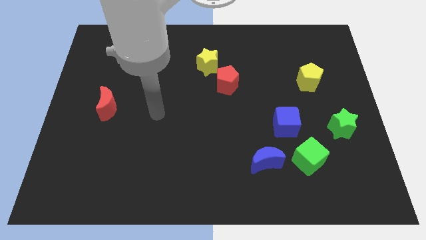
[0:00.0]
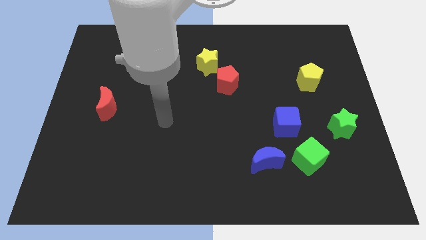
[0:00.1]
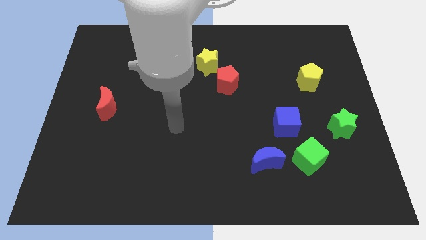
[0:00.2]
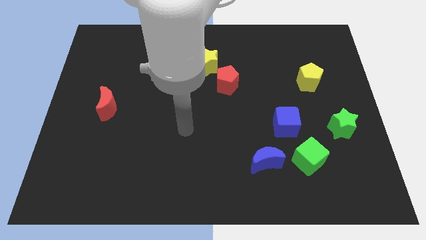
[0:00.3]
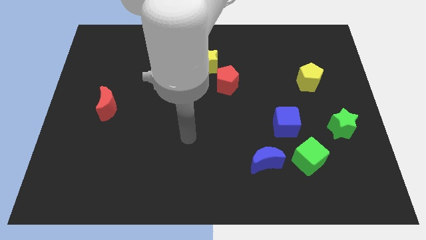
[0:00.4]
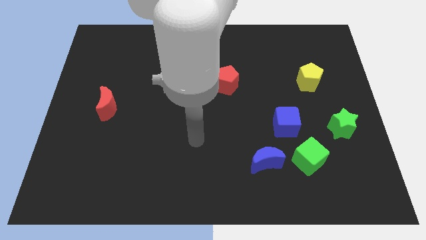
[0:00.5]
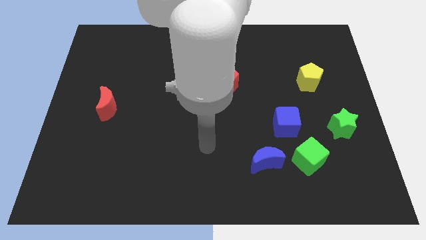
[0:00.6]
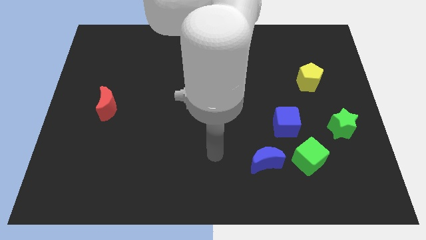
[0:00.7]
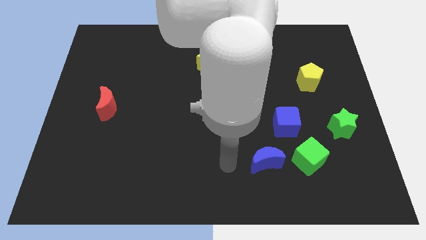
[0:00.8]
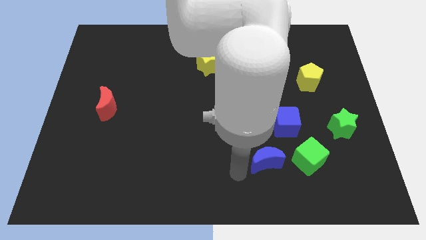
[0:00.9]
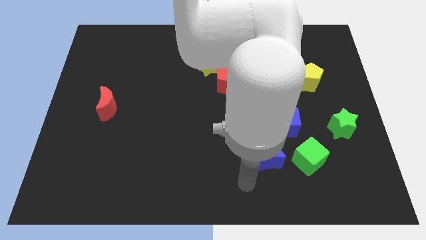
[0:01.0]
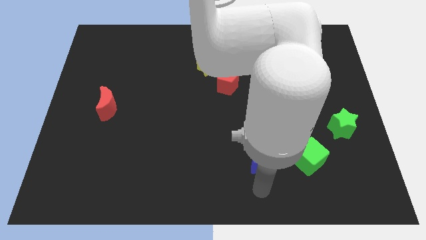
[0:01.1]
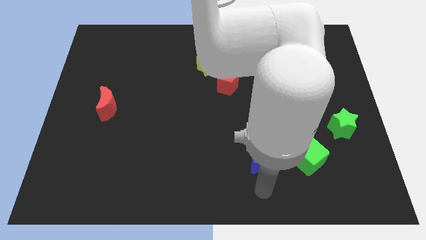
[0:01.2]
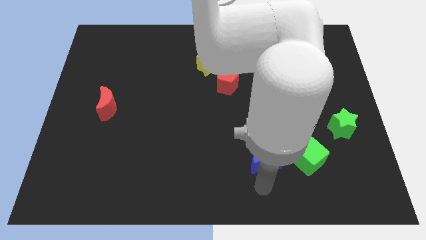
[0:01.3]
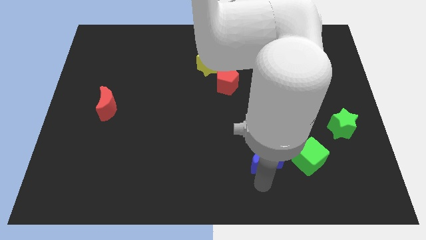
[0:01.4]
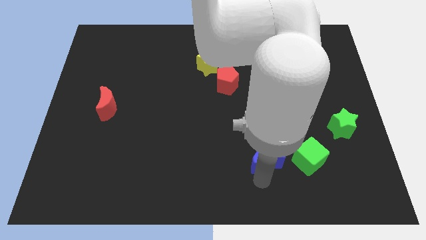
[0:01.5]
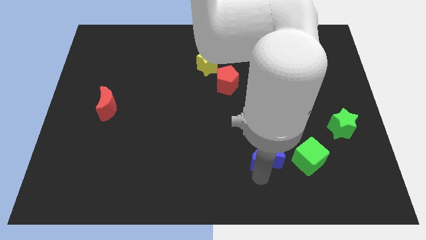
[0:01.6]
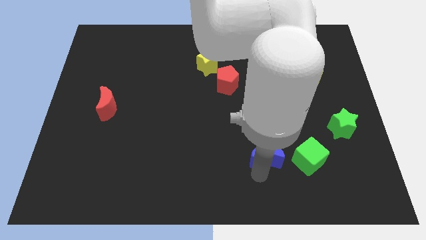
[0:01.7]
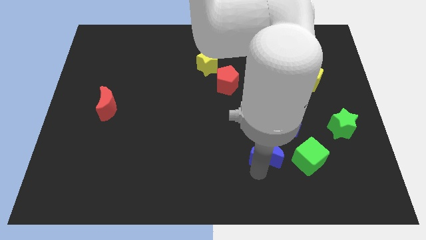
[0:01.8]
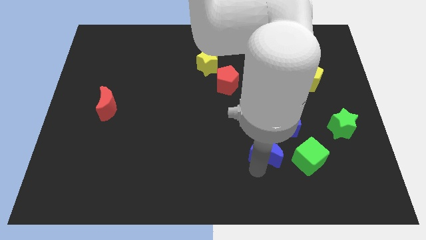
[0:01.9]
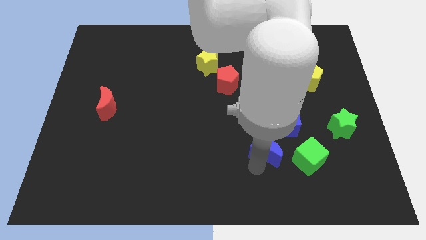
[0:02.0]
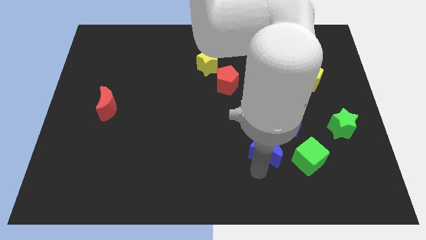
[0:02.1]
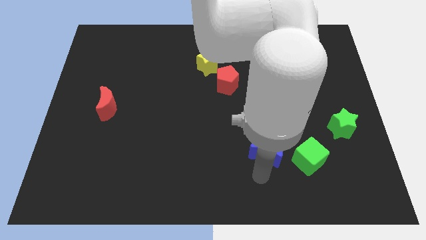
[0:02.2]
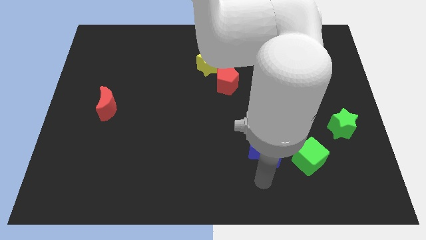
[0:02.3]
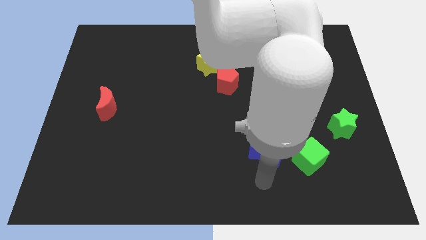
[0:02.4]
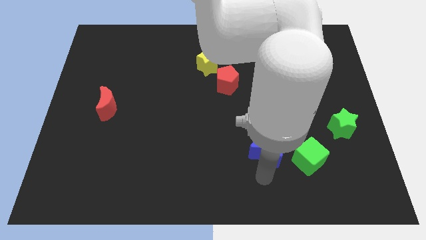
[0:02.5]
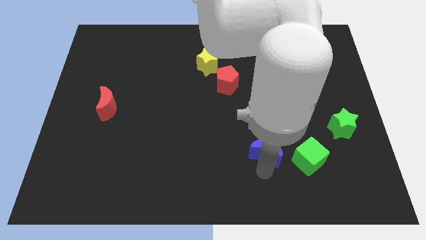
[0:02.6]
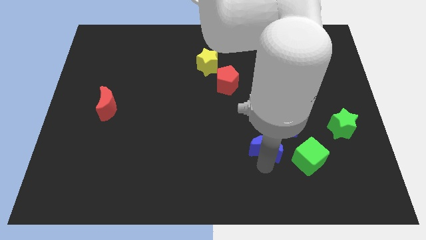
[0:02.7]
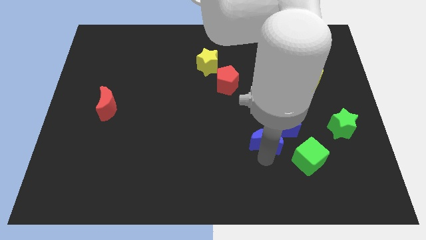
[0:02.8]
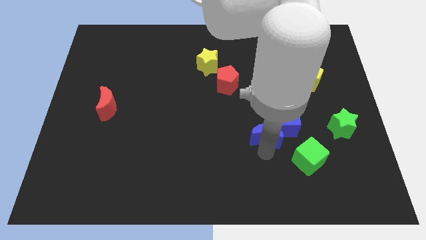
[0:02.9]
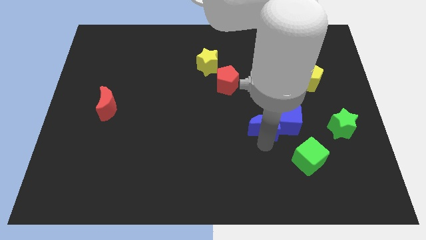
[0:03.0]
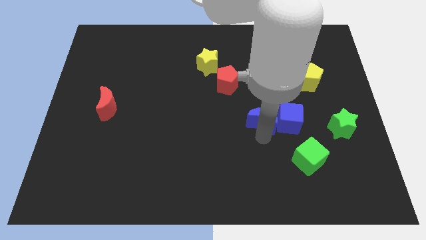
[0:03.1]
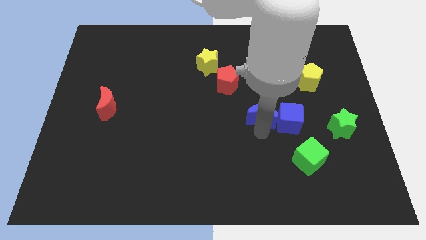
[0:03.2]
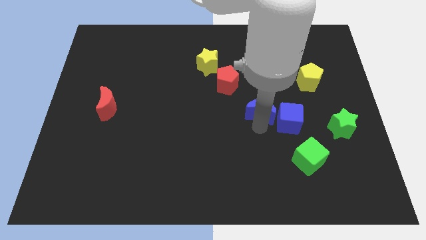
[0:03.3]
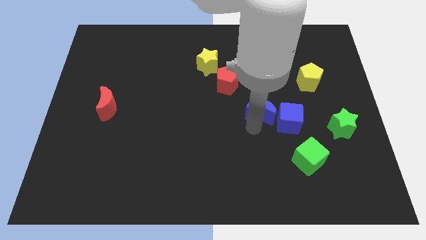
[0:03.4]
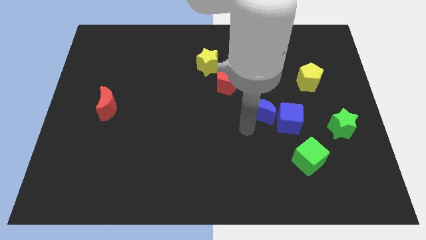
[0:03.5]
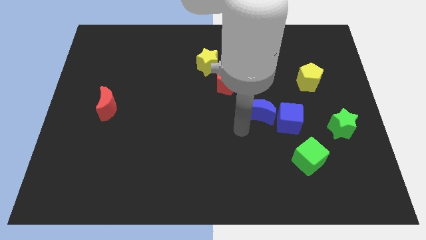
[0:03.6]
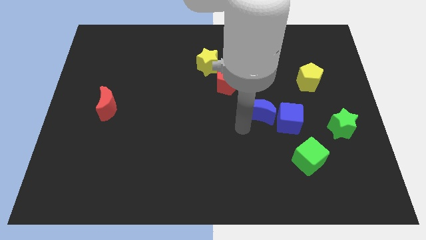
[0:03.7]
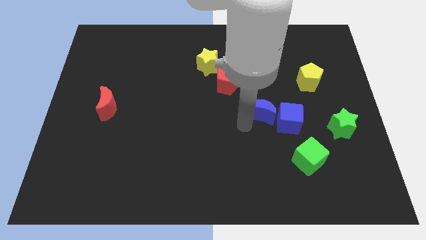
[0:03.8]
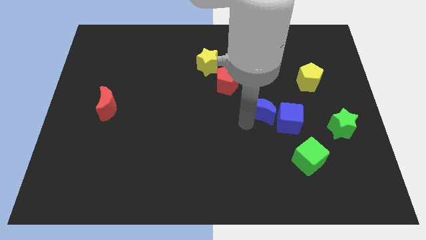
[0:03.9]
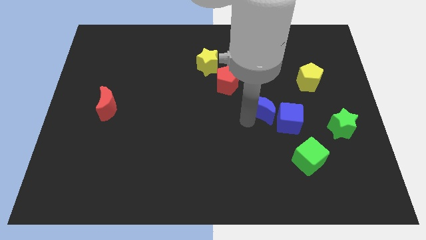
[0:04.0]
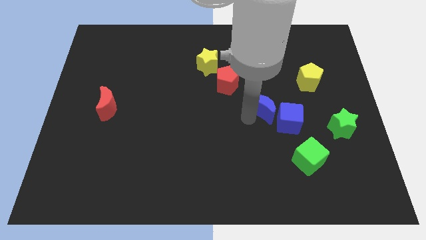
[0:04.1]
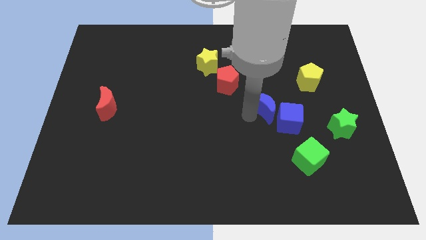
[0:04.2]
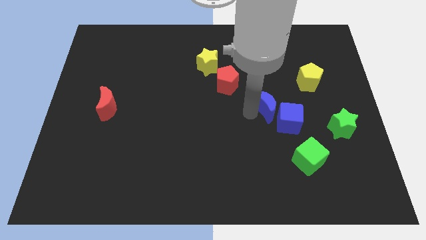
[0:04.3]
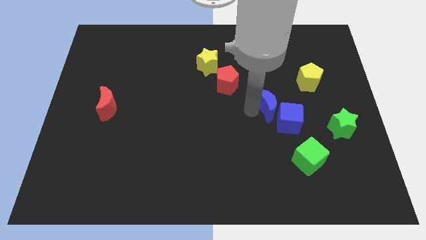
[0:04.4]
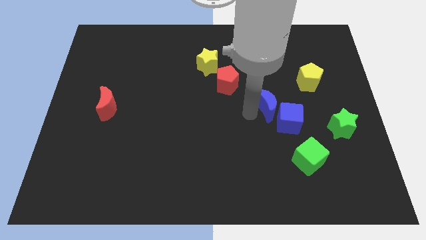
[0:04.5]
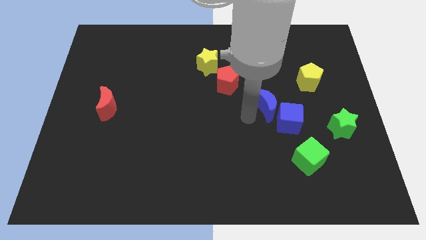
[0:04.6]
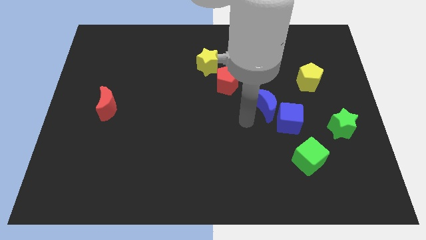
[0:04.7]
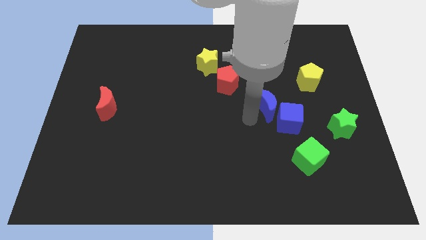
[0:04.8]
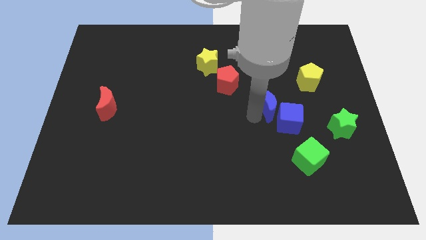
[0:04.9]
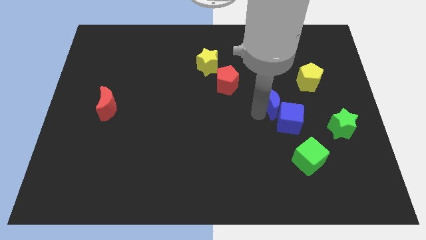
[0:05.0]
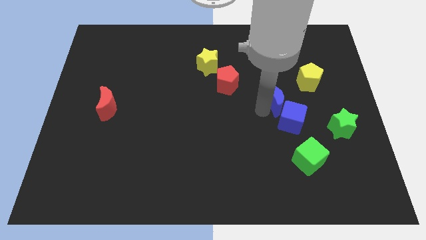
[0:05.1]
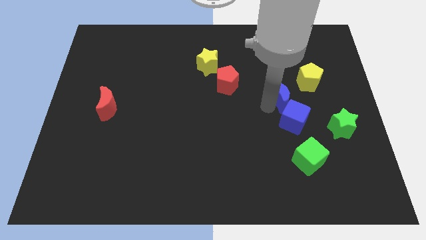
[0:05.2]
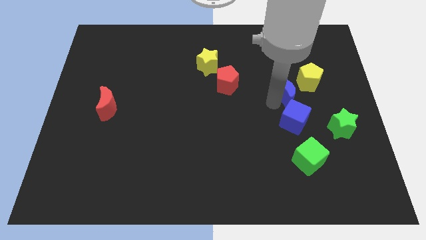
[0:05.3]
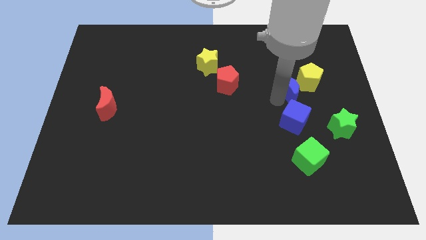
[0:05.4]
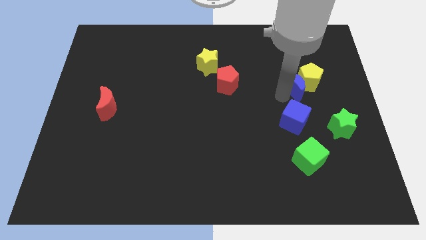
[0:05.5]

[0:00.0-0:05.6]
move the blue moon to the yellow pentagon

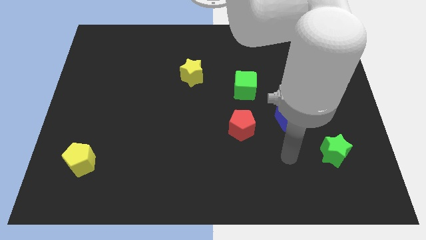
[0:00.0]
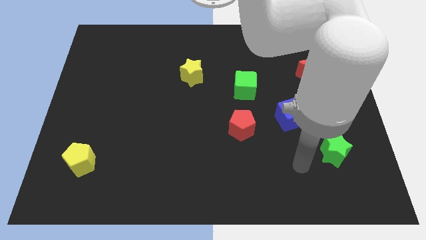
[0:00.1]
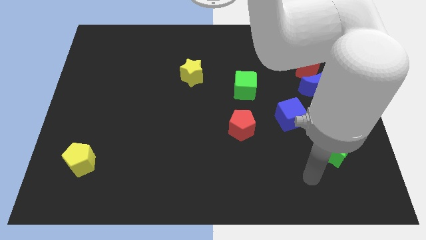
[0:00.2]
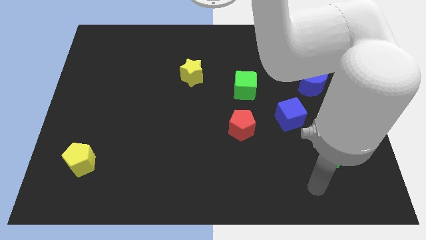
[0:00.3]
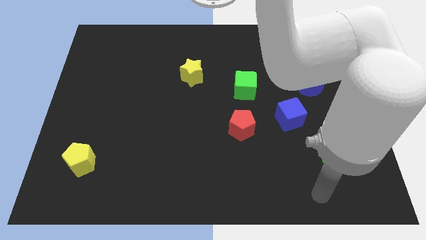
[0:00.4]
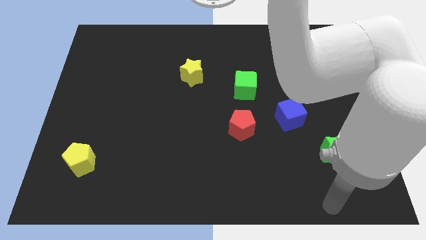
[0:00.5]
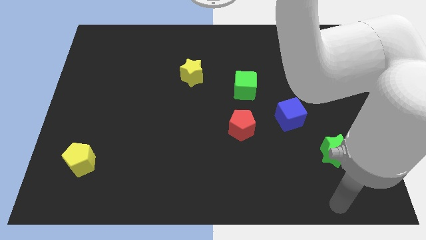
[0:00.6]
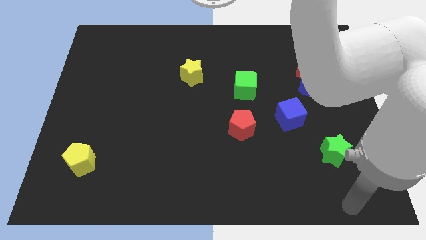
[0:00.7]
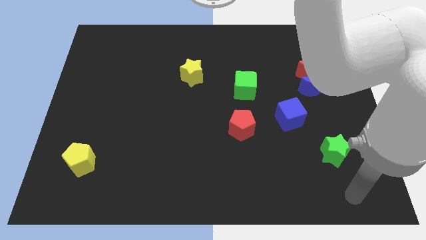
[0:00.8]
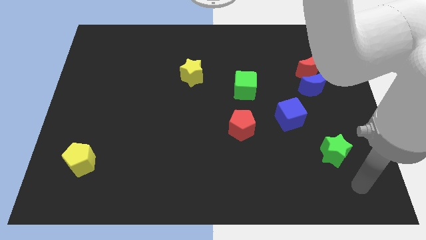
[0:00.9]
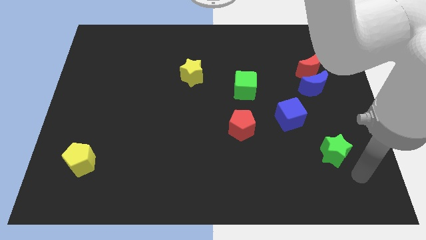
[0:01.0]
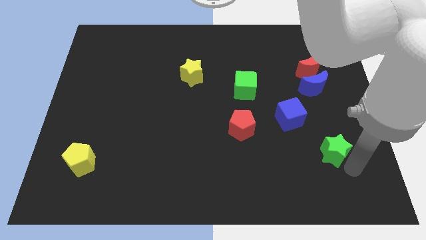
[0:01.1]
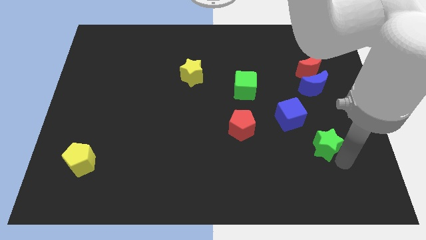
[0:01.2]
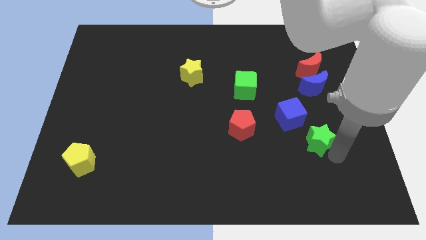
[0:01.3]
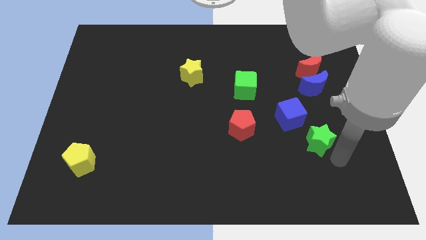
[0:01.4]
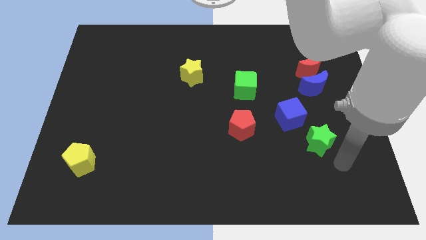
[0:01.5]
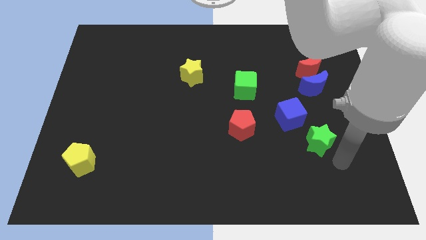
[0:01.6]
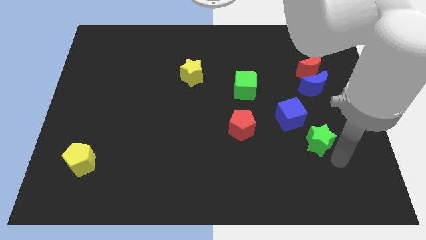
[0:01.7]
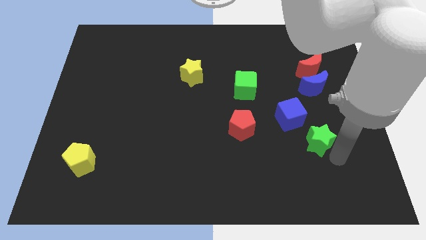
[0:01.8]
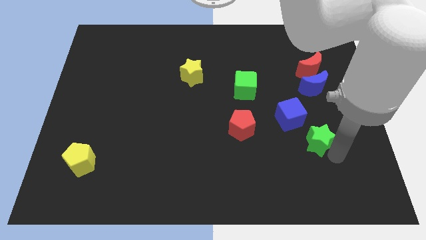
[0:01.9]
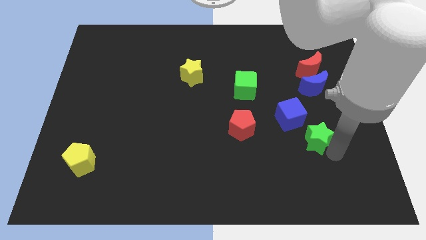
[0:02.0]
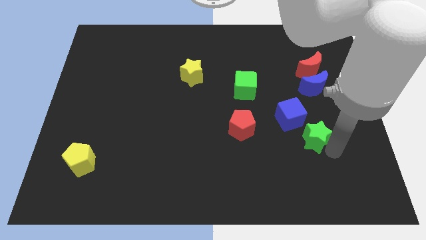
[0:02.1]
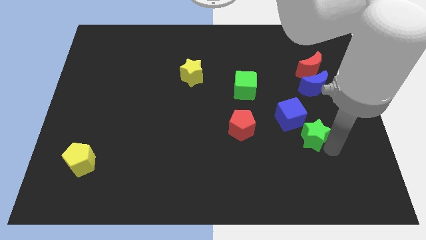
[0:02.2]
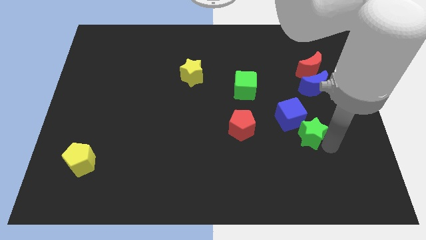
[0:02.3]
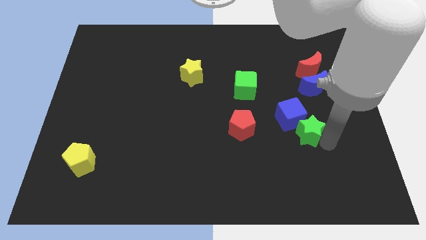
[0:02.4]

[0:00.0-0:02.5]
slide the green star close to the blue cube

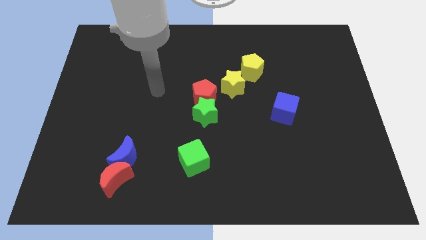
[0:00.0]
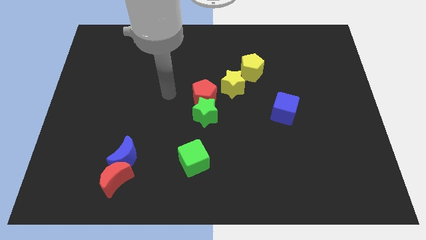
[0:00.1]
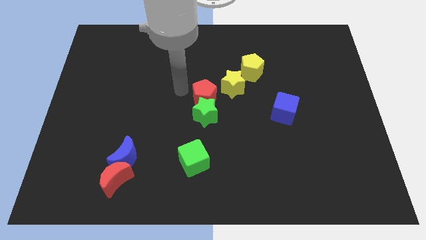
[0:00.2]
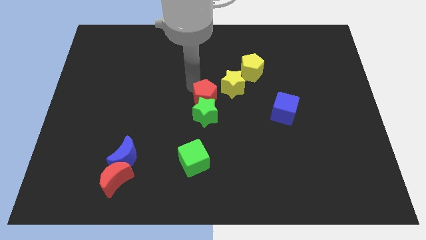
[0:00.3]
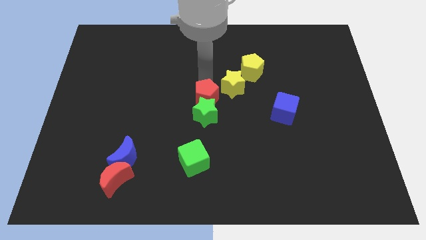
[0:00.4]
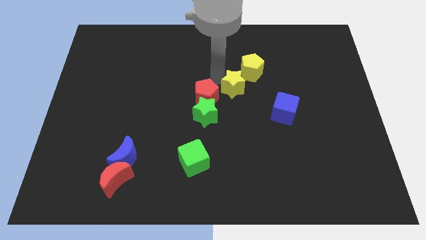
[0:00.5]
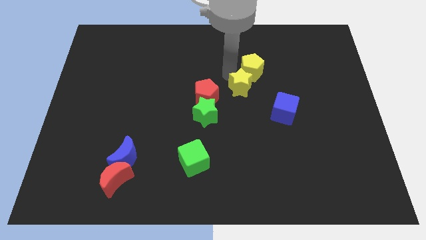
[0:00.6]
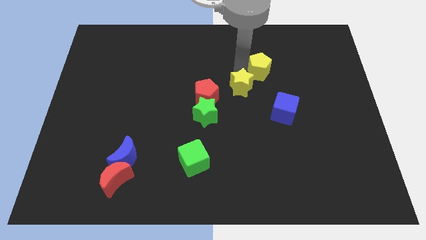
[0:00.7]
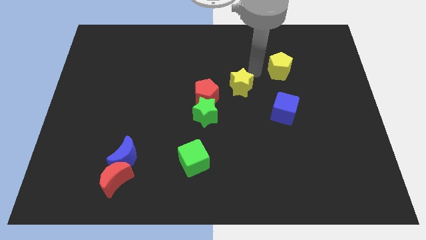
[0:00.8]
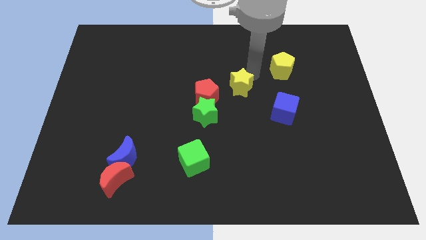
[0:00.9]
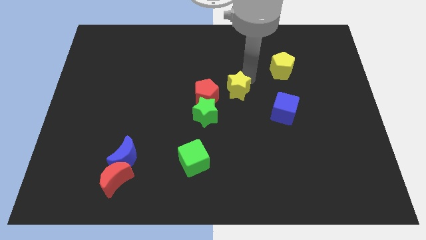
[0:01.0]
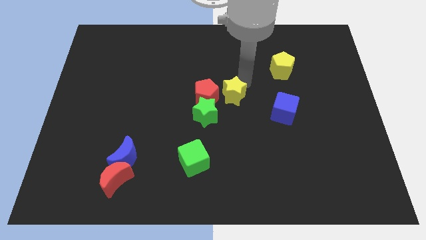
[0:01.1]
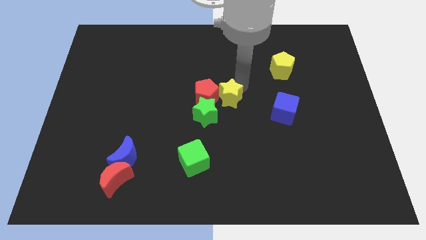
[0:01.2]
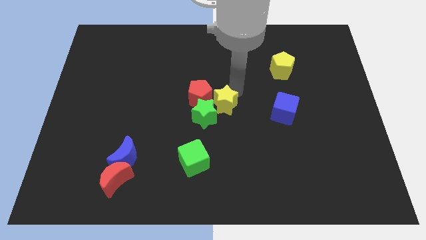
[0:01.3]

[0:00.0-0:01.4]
slide the yellow star next to the green star
